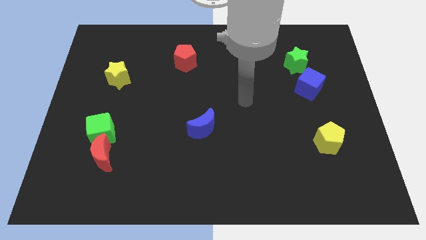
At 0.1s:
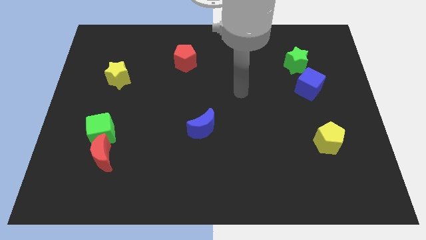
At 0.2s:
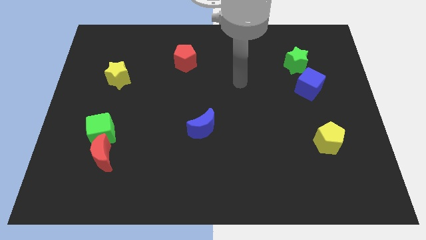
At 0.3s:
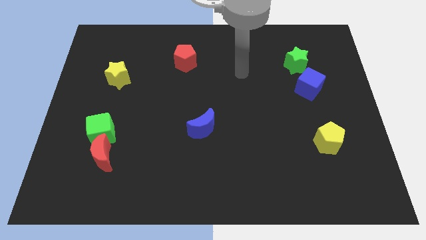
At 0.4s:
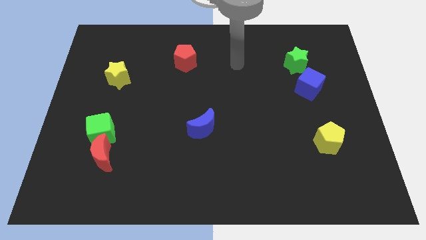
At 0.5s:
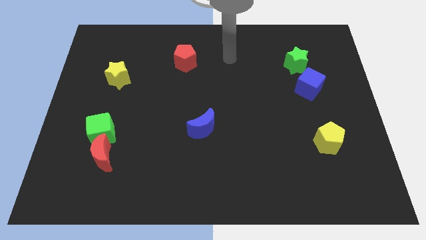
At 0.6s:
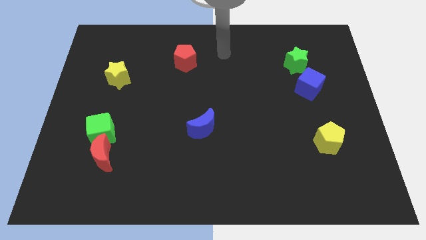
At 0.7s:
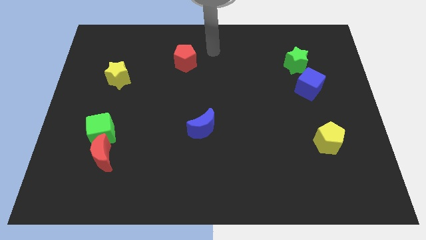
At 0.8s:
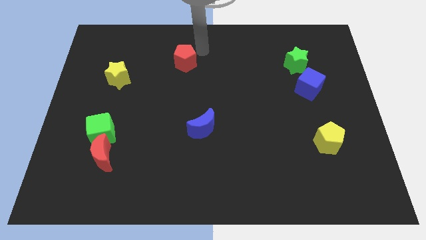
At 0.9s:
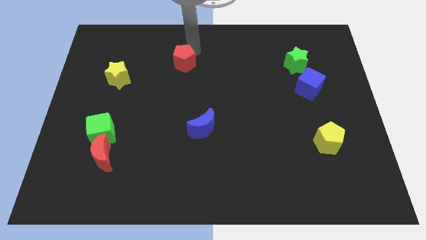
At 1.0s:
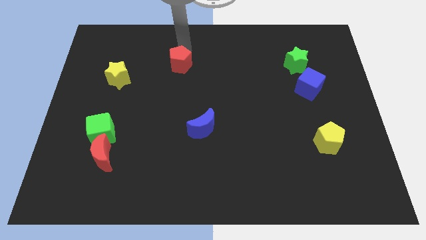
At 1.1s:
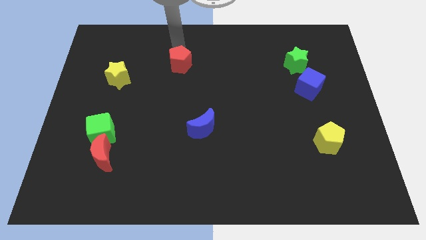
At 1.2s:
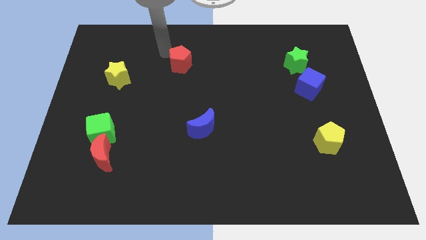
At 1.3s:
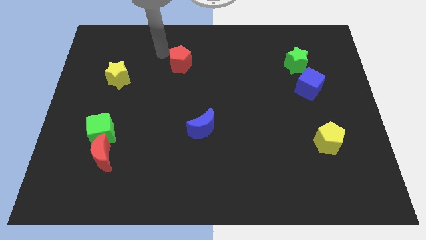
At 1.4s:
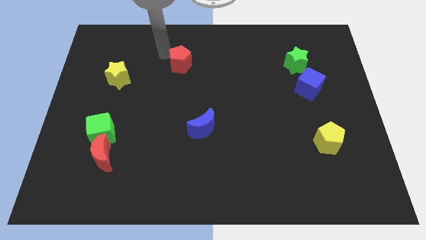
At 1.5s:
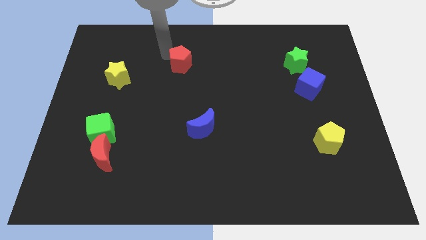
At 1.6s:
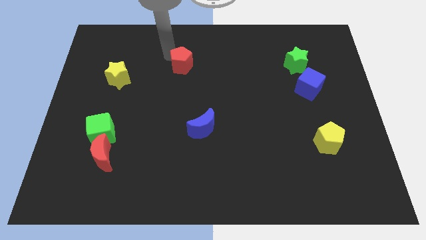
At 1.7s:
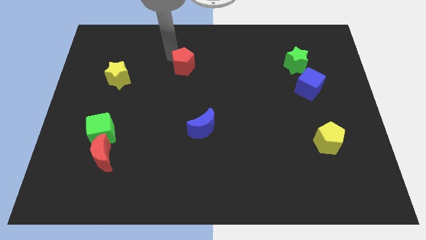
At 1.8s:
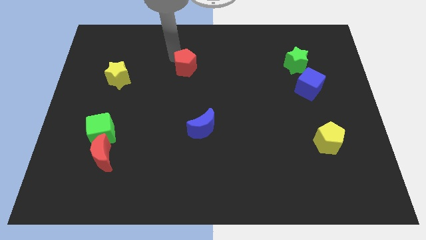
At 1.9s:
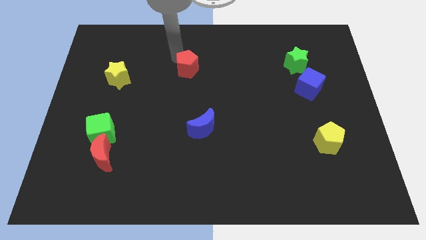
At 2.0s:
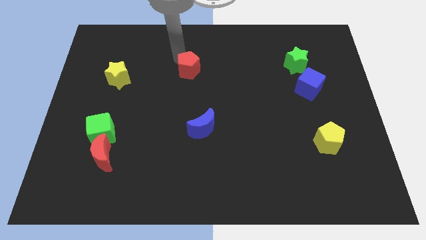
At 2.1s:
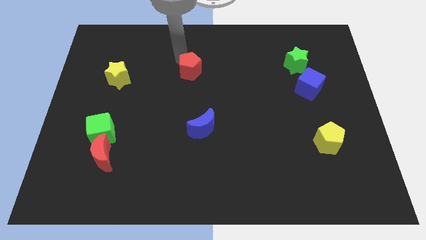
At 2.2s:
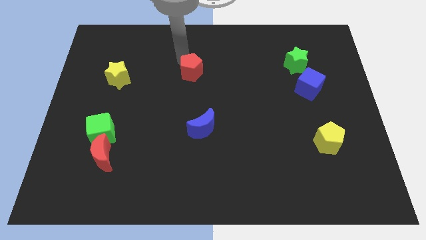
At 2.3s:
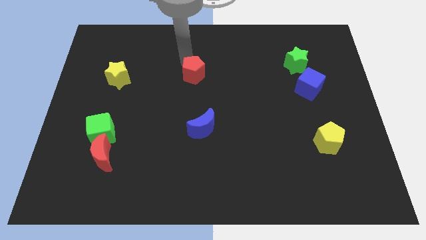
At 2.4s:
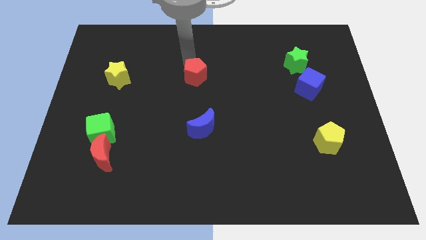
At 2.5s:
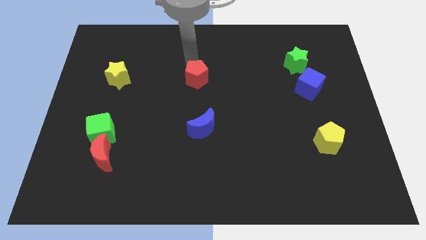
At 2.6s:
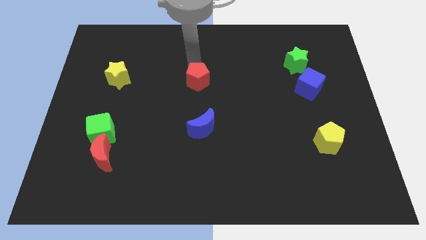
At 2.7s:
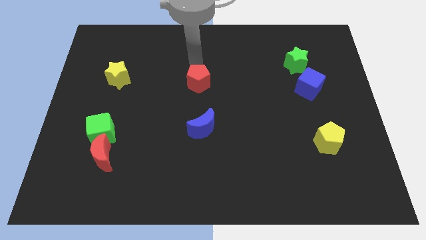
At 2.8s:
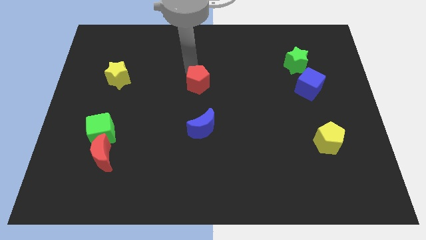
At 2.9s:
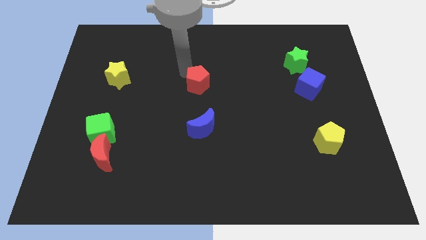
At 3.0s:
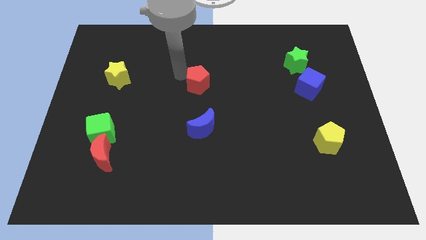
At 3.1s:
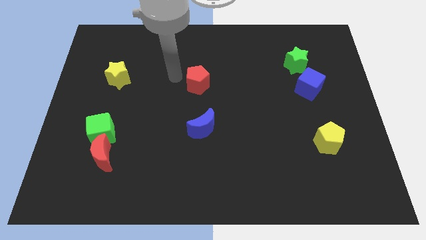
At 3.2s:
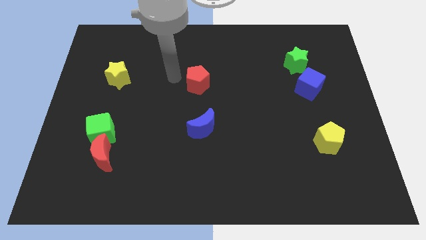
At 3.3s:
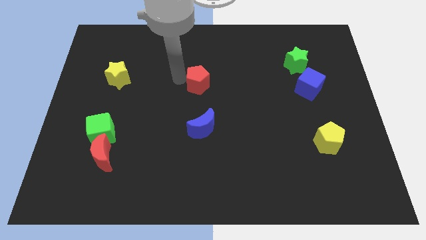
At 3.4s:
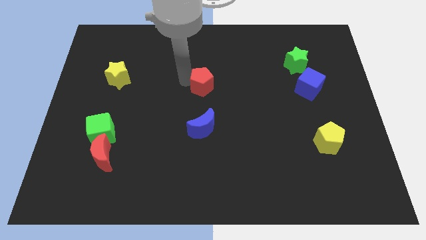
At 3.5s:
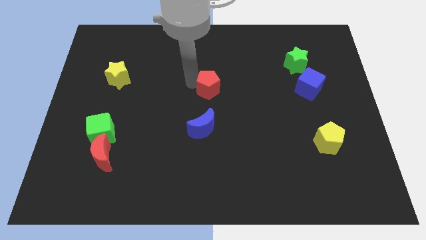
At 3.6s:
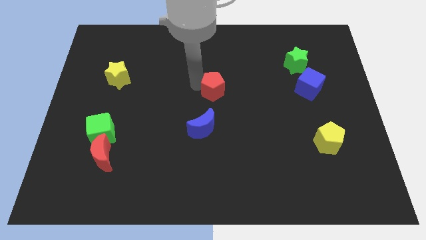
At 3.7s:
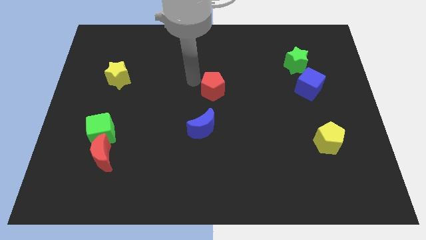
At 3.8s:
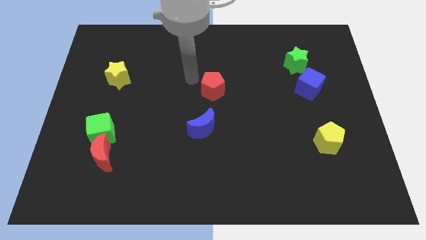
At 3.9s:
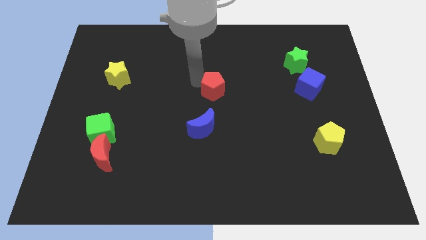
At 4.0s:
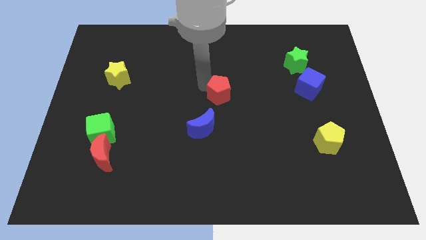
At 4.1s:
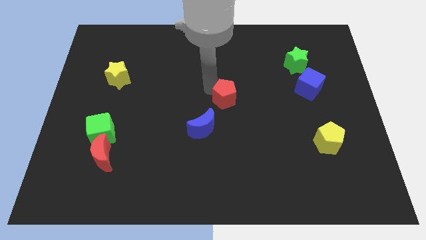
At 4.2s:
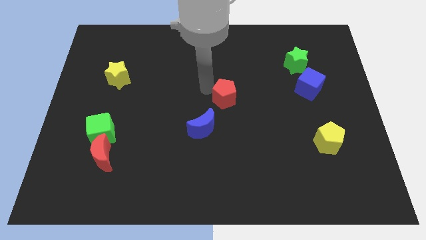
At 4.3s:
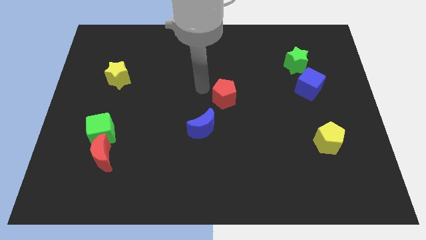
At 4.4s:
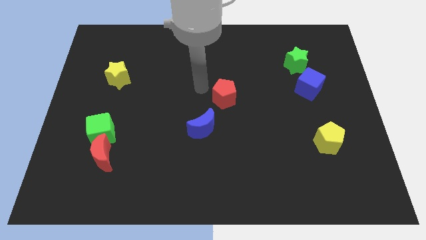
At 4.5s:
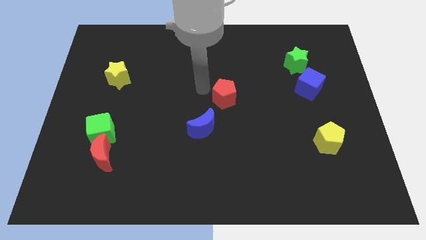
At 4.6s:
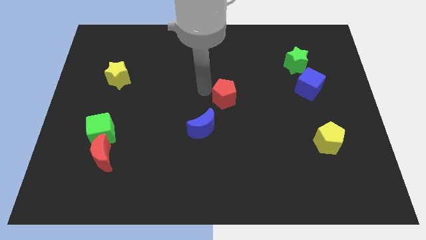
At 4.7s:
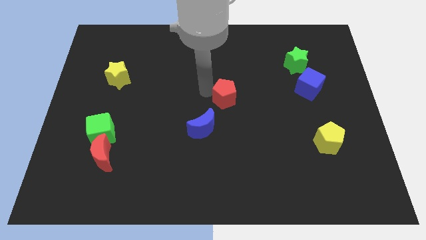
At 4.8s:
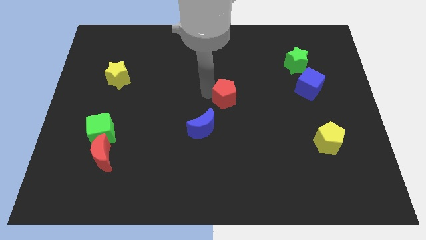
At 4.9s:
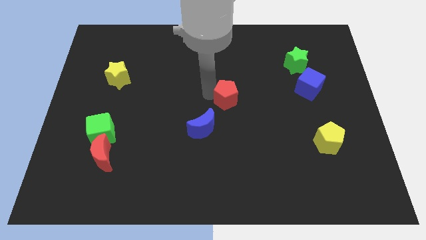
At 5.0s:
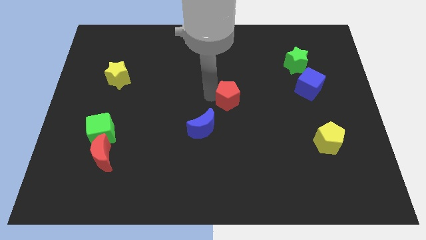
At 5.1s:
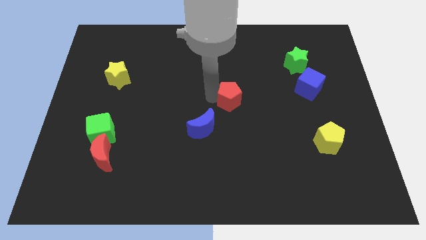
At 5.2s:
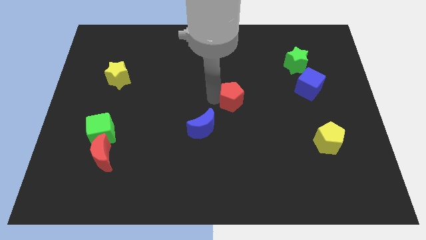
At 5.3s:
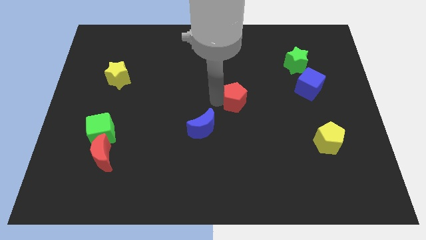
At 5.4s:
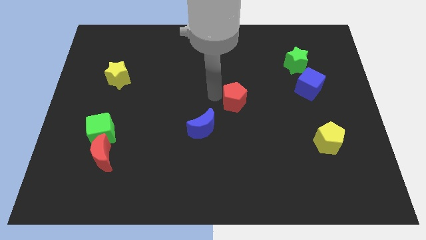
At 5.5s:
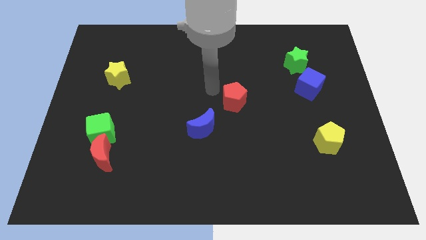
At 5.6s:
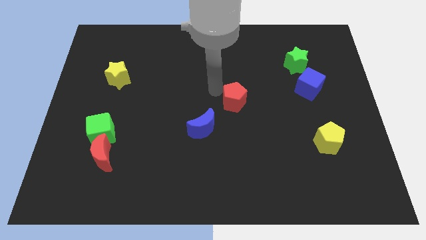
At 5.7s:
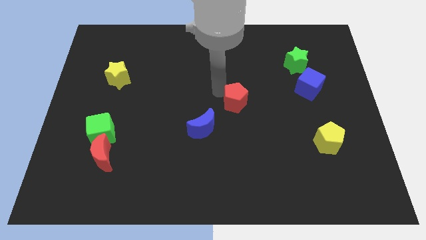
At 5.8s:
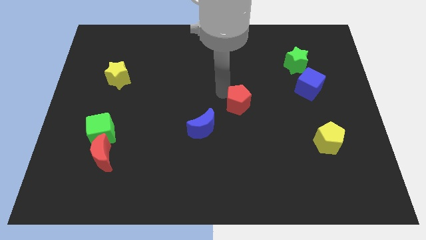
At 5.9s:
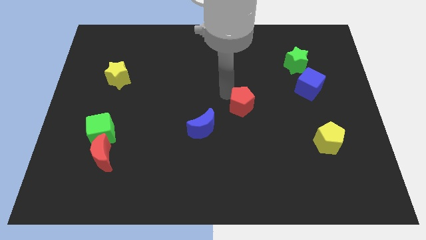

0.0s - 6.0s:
push the red pentagon down and then right

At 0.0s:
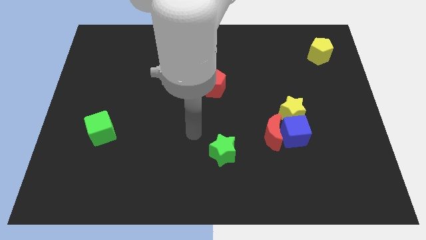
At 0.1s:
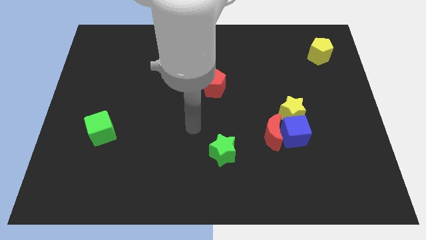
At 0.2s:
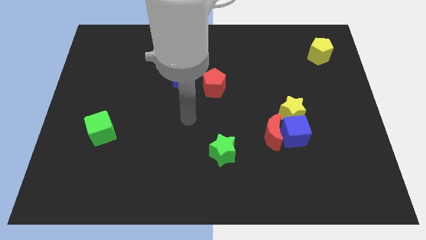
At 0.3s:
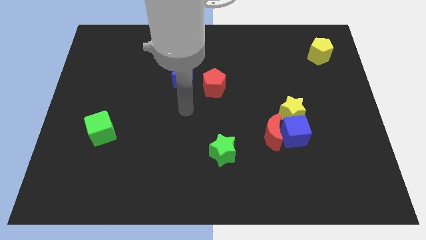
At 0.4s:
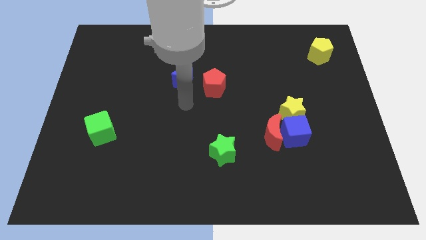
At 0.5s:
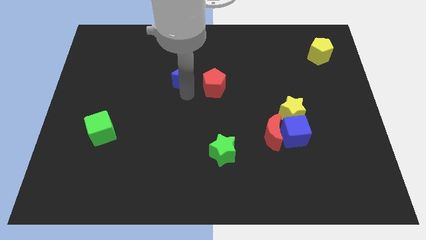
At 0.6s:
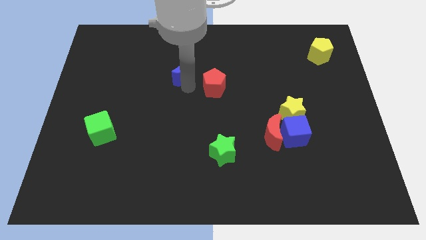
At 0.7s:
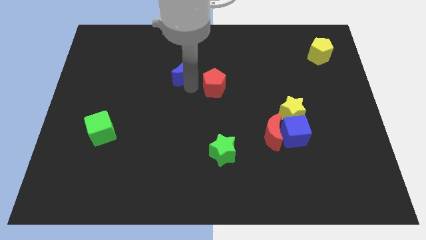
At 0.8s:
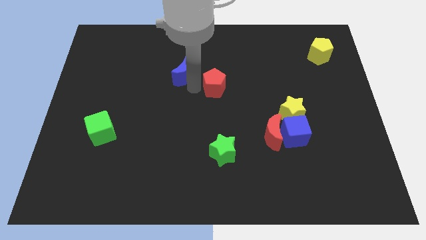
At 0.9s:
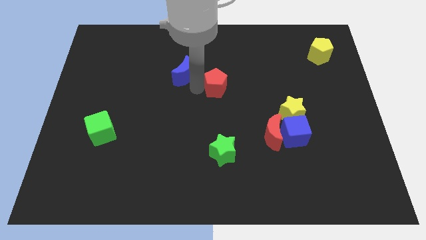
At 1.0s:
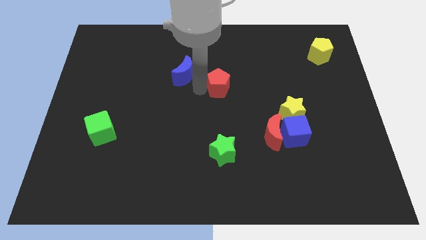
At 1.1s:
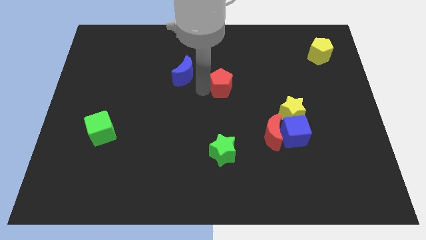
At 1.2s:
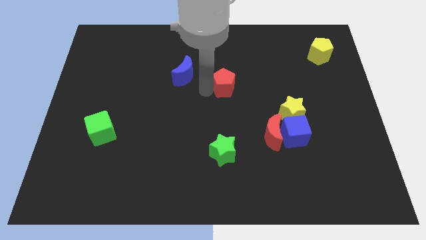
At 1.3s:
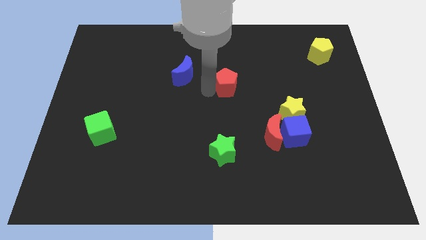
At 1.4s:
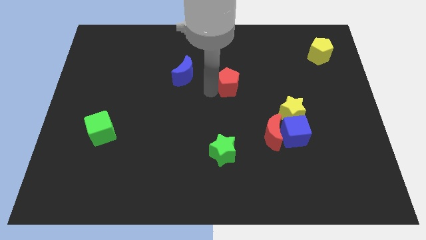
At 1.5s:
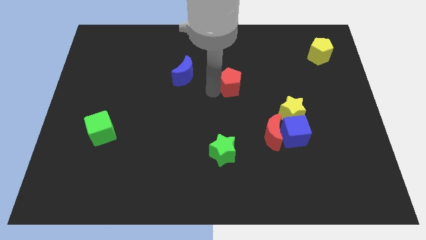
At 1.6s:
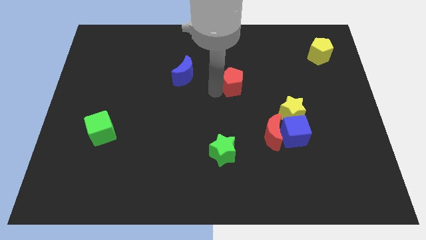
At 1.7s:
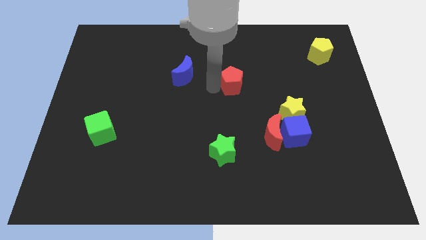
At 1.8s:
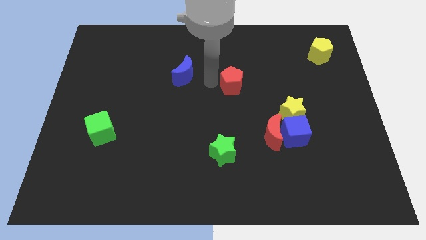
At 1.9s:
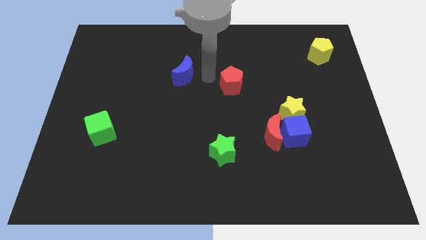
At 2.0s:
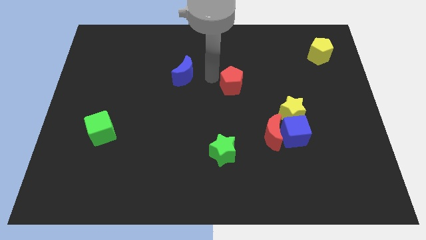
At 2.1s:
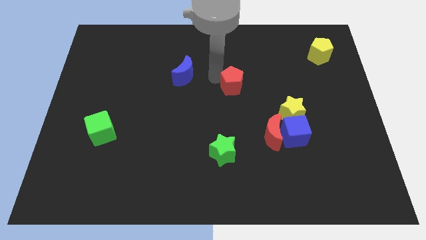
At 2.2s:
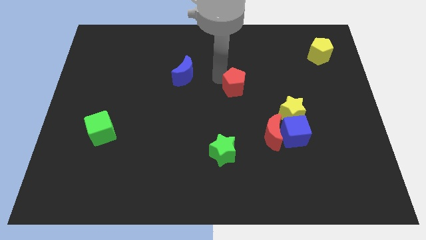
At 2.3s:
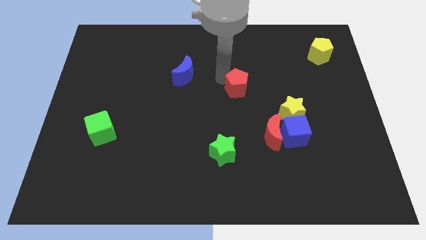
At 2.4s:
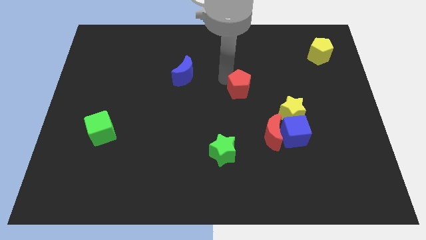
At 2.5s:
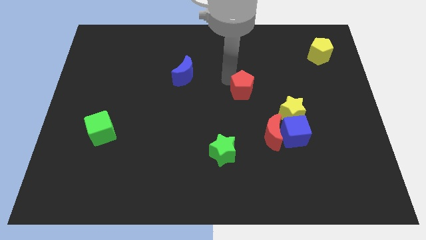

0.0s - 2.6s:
move the red pentagon right a little bit

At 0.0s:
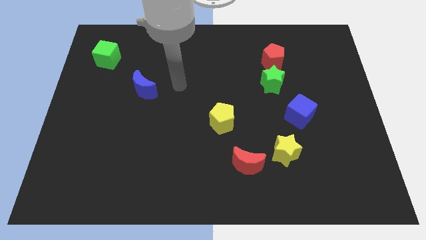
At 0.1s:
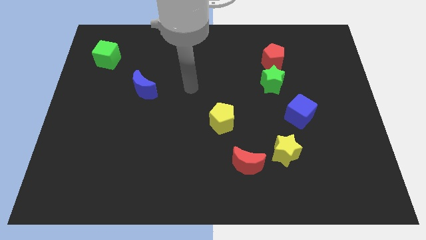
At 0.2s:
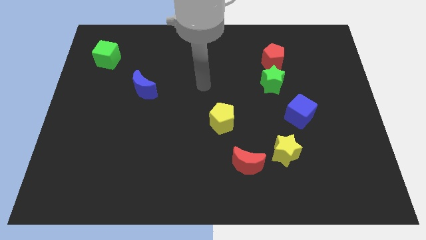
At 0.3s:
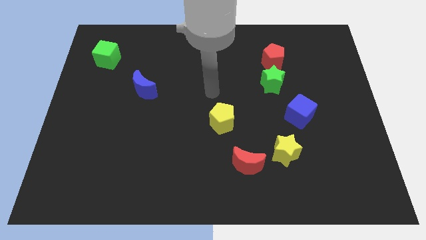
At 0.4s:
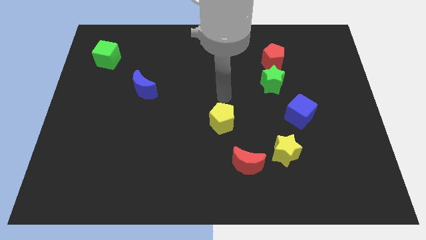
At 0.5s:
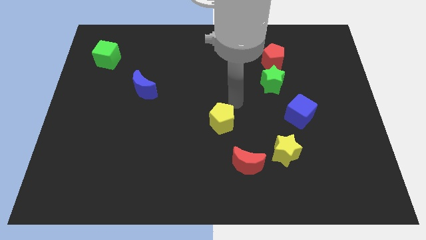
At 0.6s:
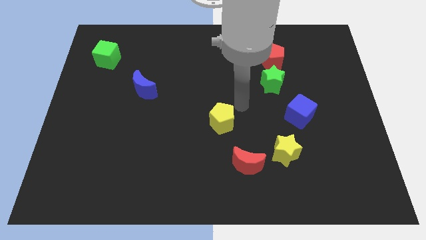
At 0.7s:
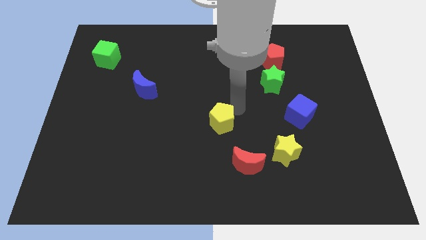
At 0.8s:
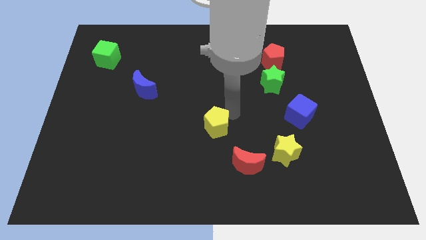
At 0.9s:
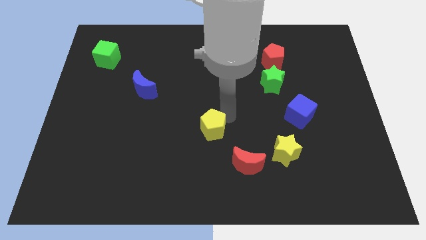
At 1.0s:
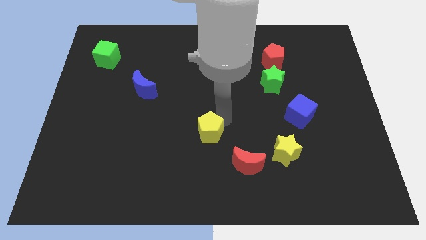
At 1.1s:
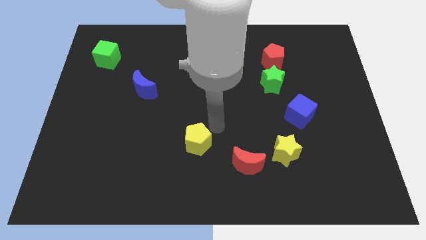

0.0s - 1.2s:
move the yellow pentagon slightly down and then to the left
